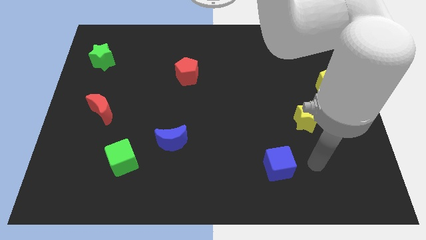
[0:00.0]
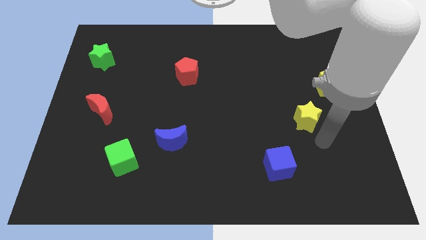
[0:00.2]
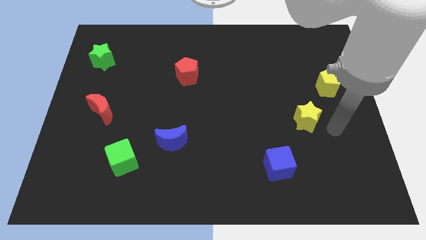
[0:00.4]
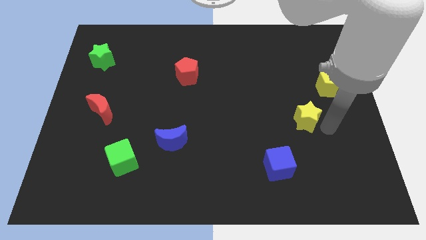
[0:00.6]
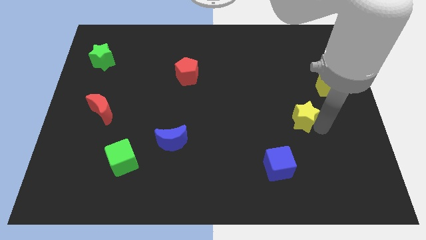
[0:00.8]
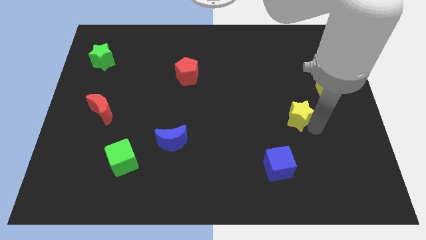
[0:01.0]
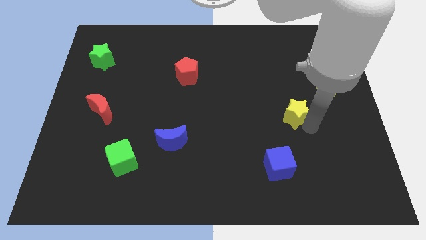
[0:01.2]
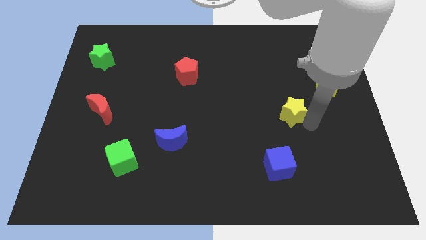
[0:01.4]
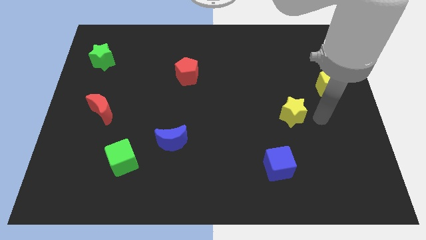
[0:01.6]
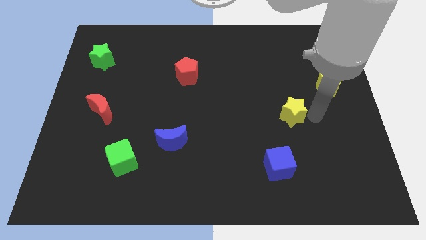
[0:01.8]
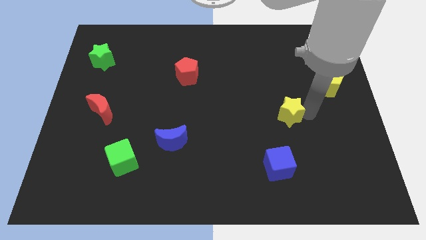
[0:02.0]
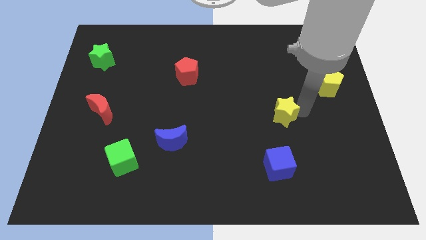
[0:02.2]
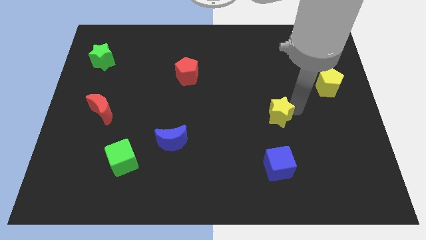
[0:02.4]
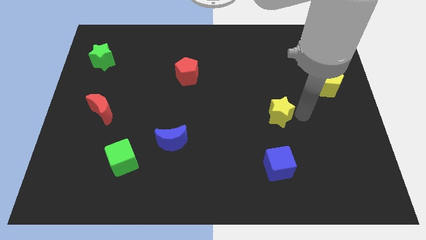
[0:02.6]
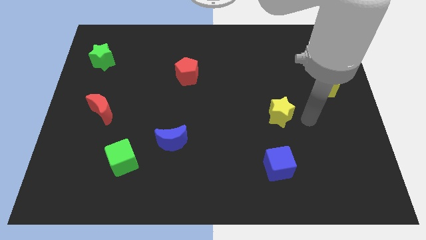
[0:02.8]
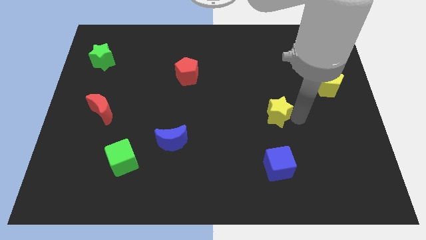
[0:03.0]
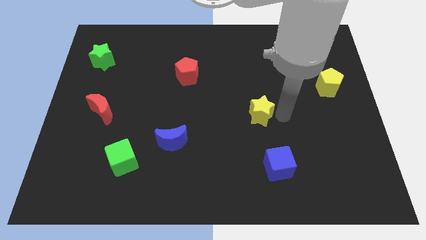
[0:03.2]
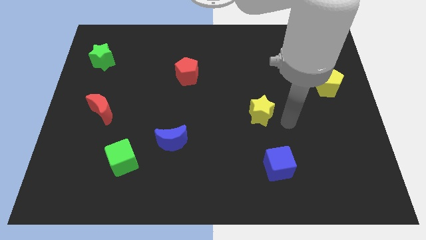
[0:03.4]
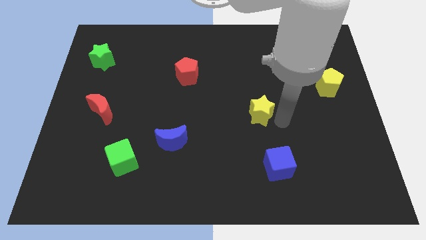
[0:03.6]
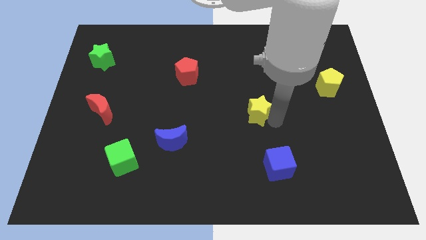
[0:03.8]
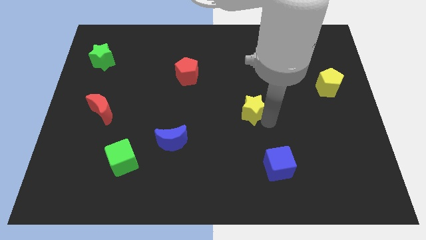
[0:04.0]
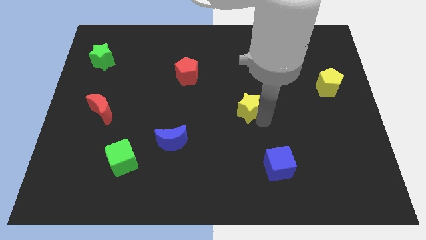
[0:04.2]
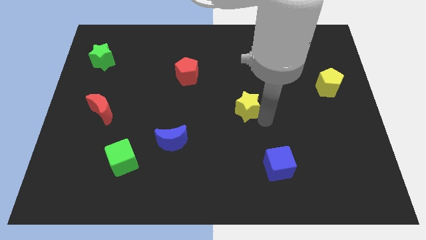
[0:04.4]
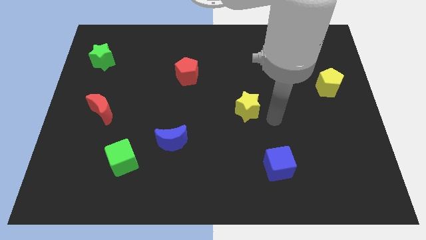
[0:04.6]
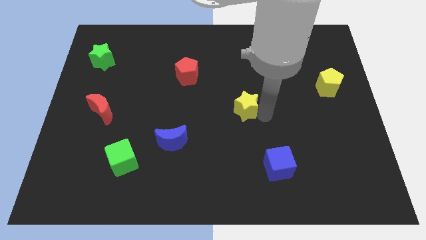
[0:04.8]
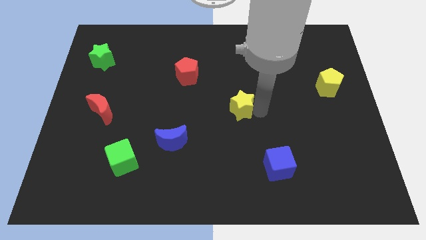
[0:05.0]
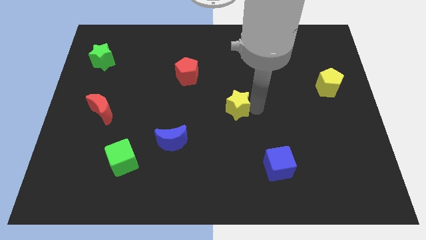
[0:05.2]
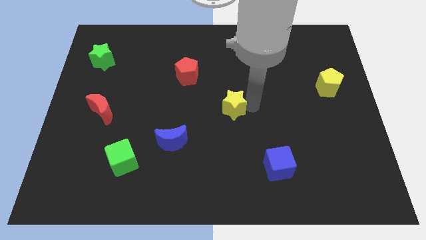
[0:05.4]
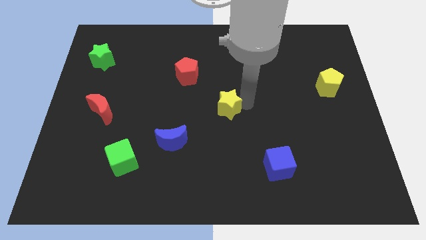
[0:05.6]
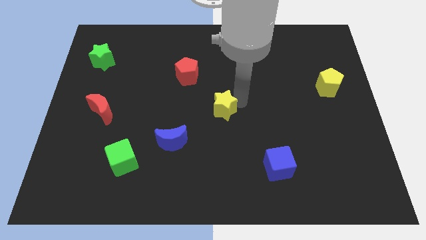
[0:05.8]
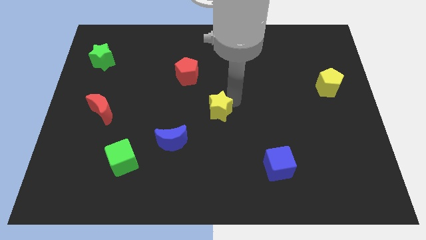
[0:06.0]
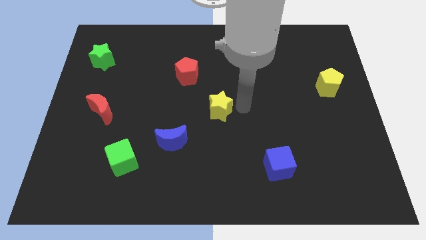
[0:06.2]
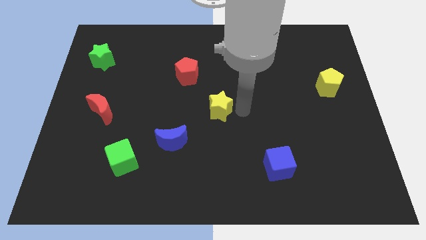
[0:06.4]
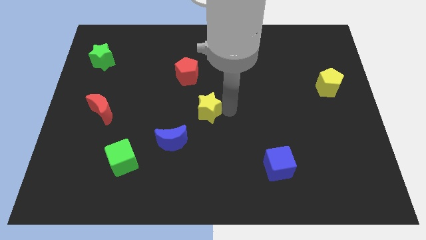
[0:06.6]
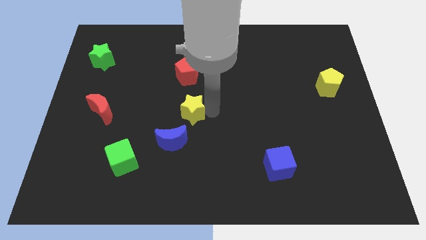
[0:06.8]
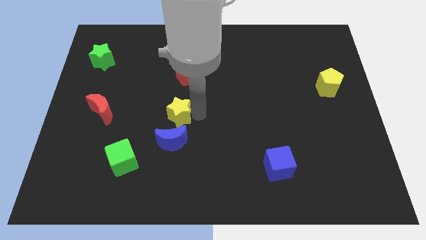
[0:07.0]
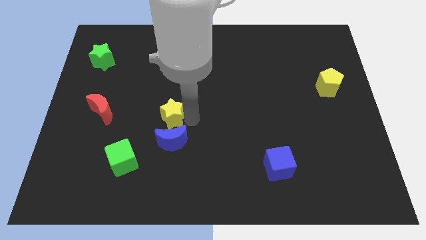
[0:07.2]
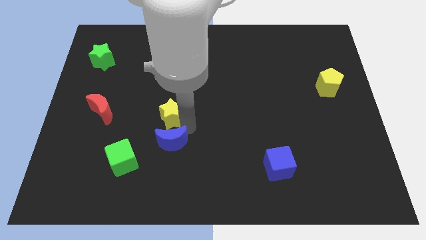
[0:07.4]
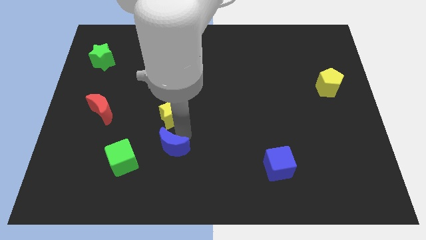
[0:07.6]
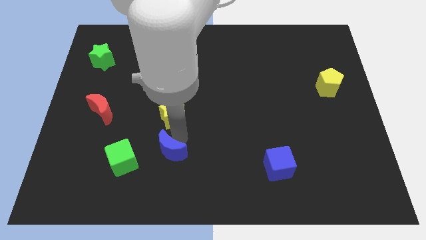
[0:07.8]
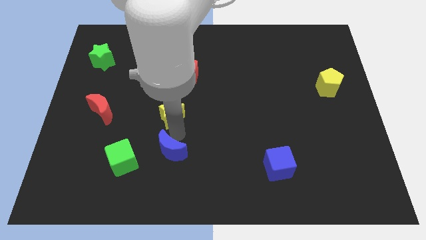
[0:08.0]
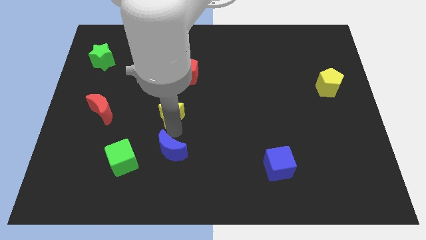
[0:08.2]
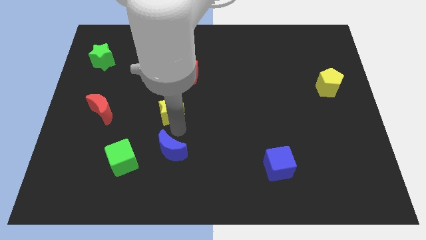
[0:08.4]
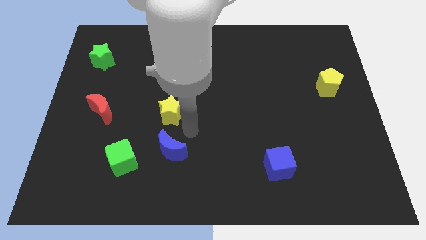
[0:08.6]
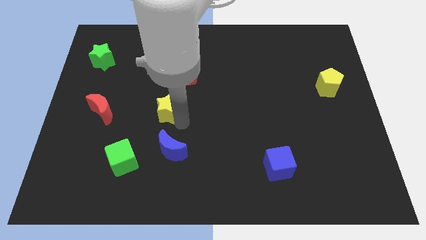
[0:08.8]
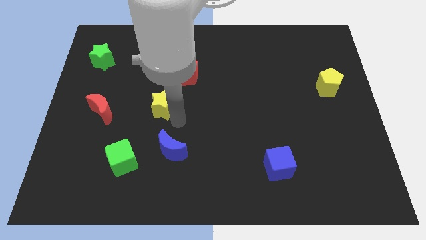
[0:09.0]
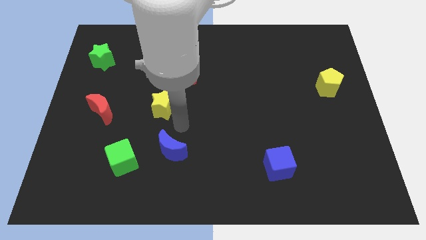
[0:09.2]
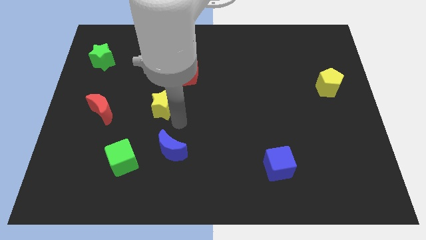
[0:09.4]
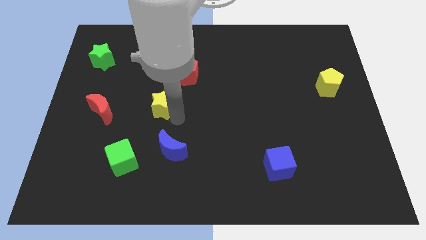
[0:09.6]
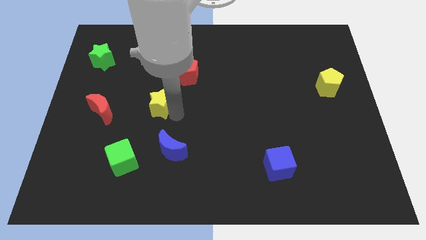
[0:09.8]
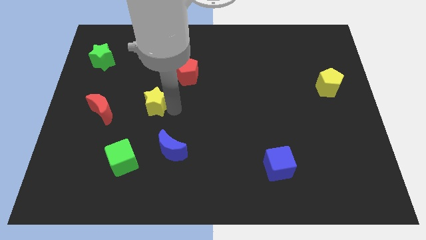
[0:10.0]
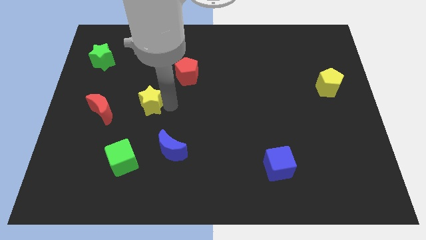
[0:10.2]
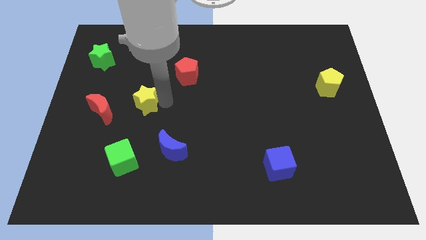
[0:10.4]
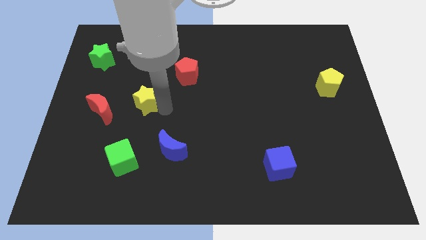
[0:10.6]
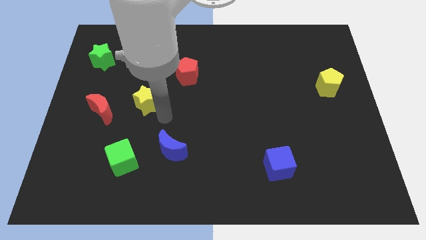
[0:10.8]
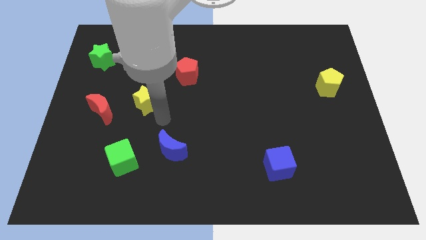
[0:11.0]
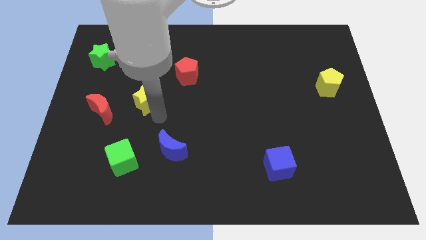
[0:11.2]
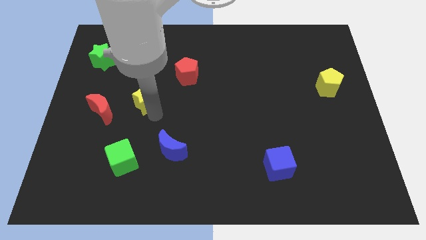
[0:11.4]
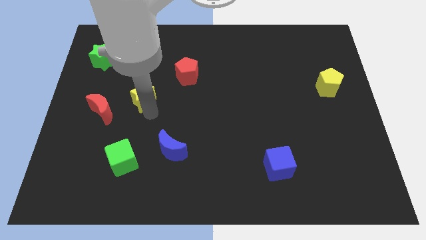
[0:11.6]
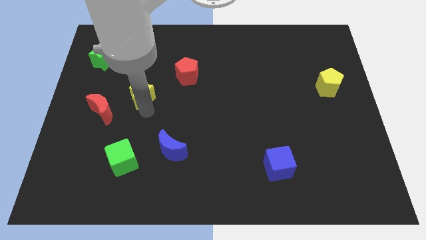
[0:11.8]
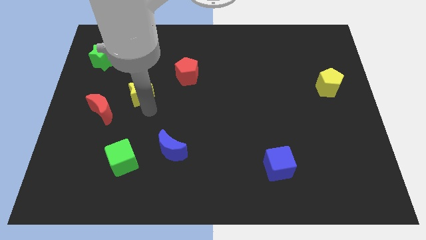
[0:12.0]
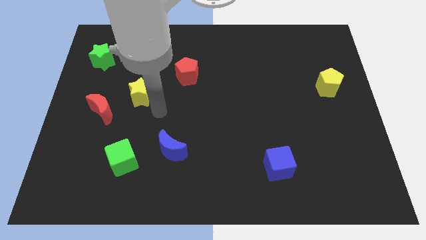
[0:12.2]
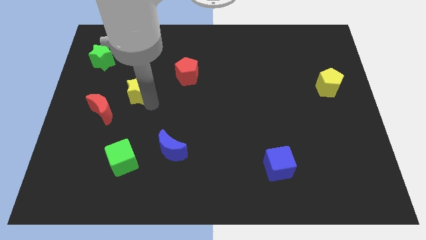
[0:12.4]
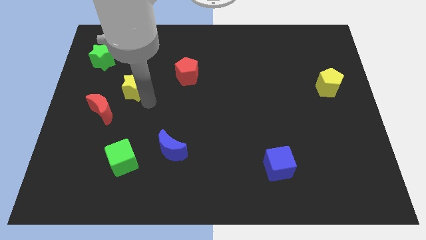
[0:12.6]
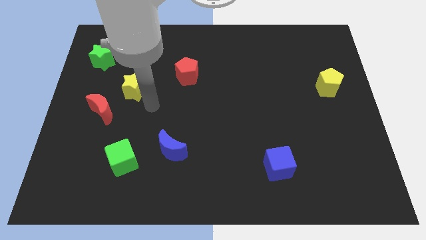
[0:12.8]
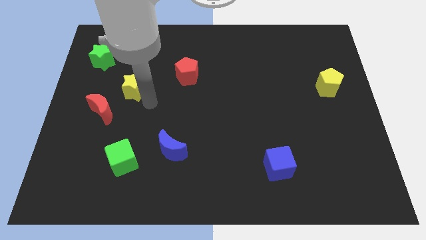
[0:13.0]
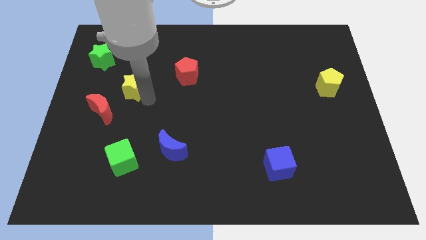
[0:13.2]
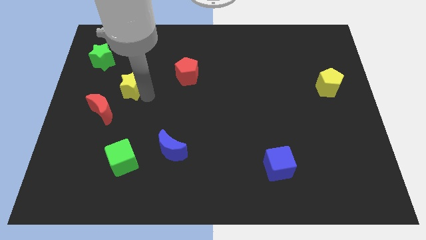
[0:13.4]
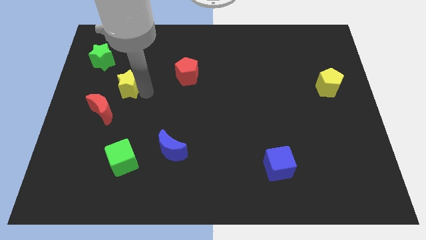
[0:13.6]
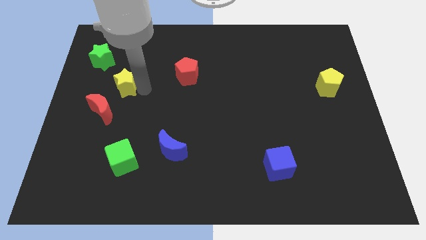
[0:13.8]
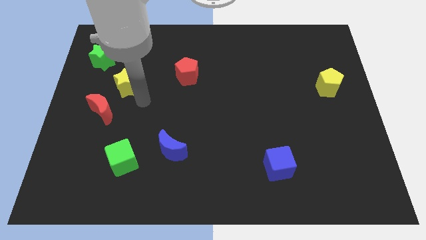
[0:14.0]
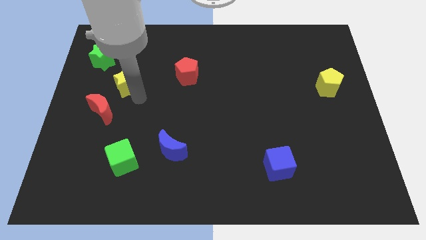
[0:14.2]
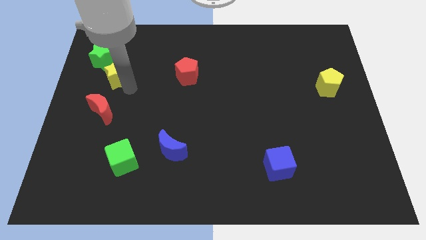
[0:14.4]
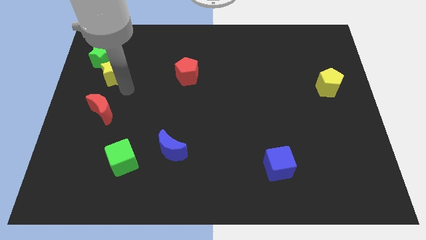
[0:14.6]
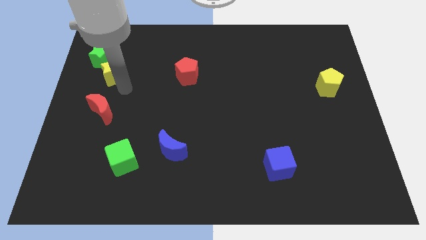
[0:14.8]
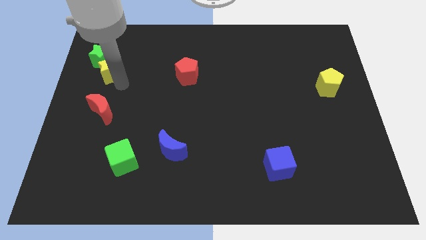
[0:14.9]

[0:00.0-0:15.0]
move the yellow star next to the green star
